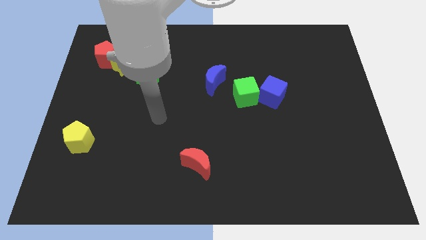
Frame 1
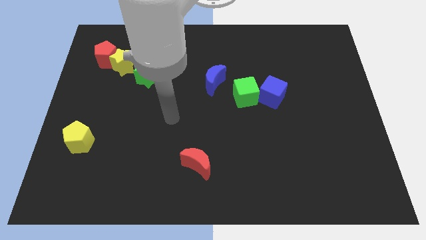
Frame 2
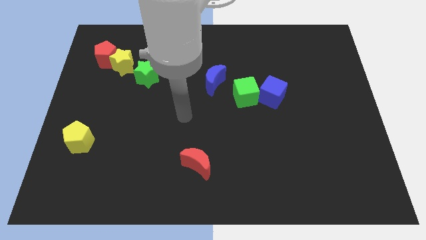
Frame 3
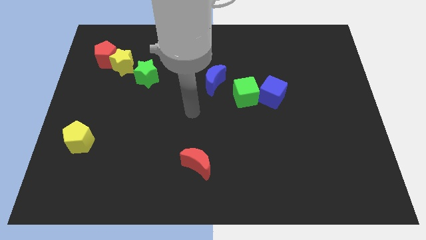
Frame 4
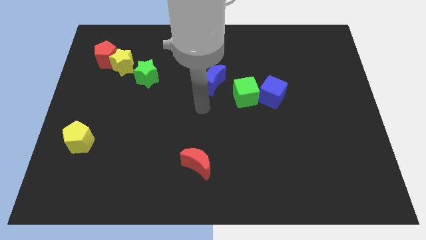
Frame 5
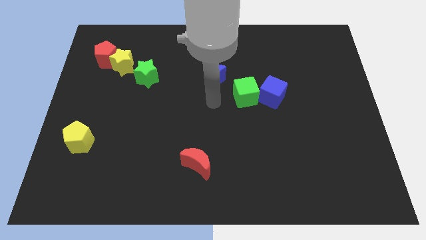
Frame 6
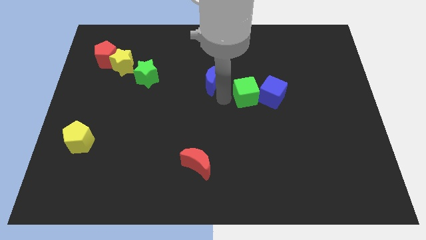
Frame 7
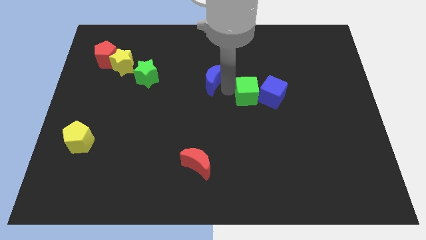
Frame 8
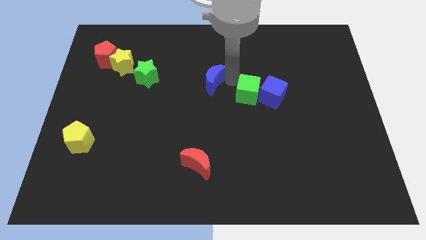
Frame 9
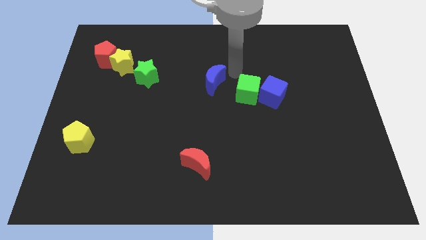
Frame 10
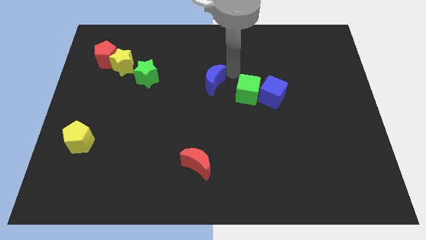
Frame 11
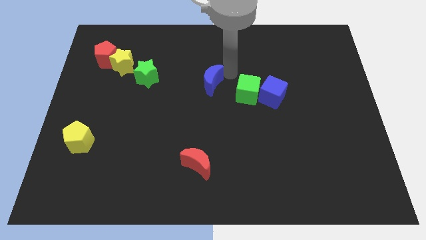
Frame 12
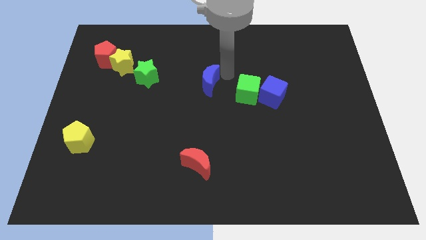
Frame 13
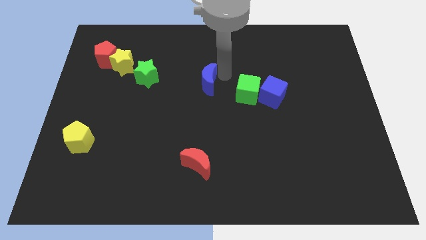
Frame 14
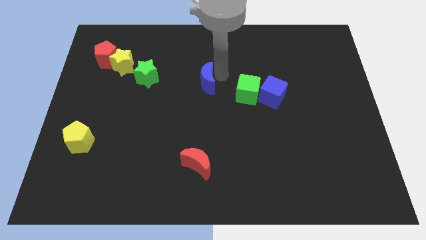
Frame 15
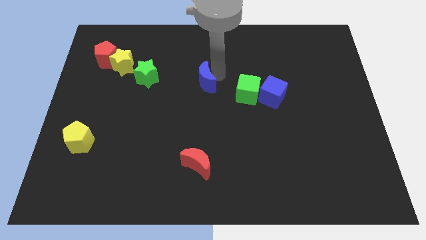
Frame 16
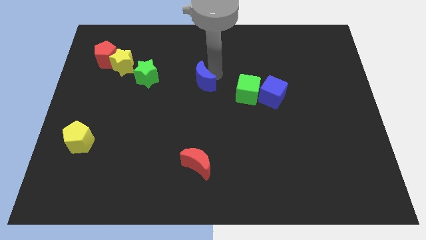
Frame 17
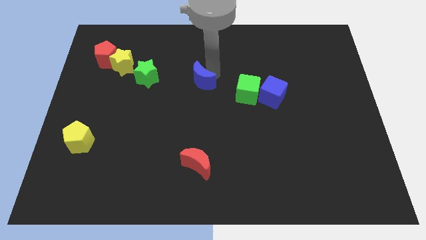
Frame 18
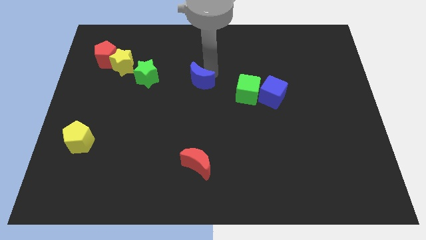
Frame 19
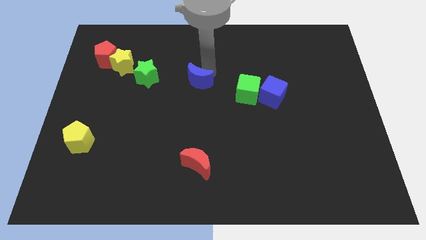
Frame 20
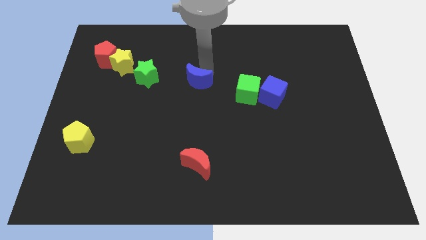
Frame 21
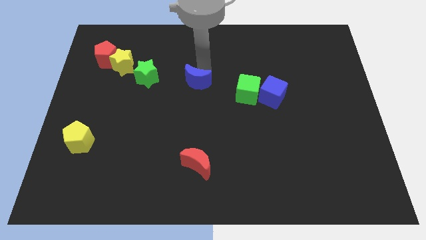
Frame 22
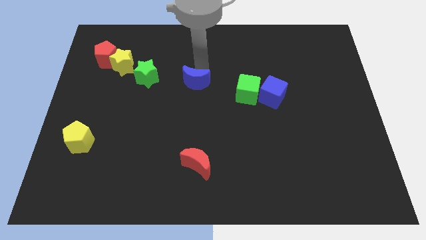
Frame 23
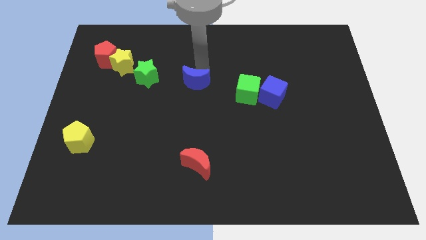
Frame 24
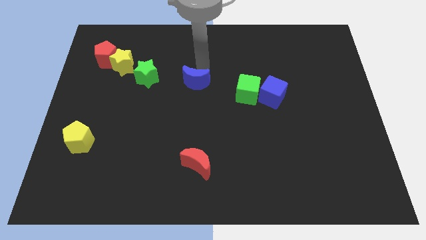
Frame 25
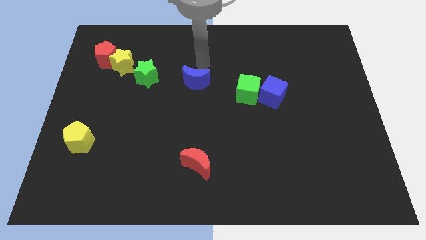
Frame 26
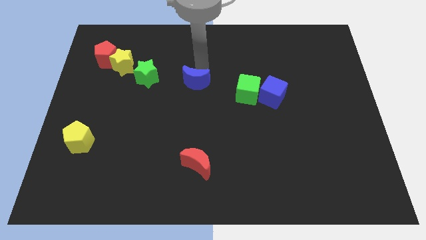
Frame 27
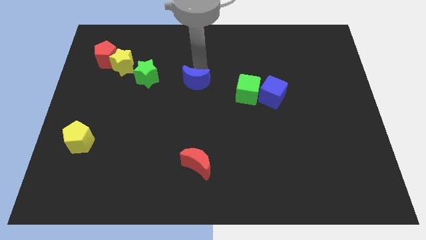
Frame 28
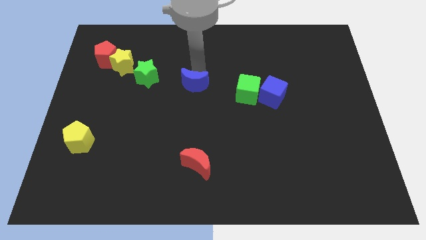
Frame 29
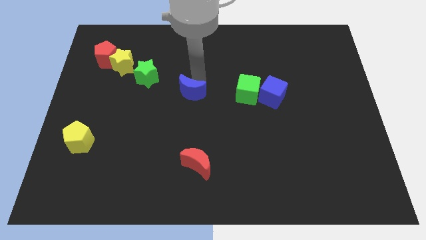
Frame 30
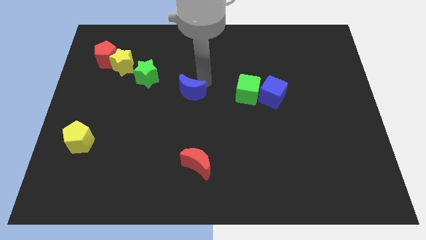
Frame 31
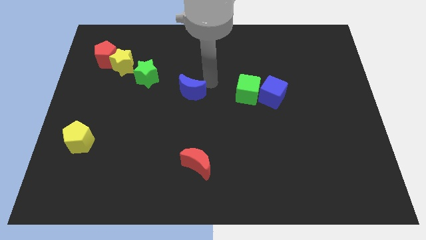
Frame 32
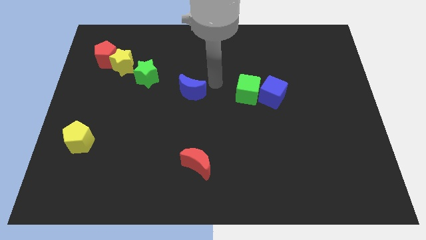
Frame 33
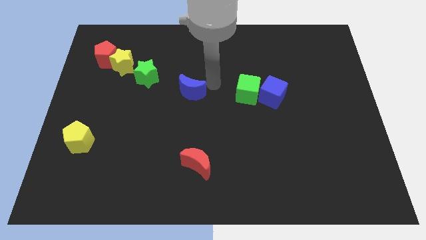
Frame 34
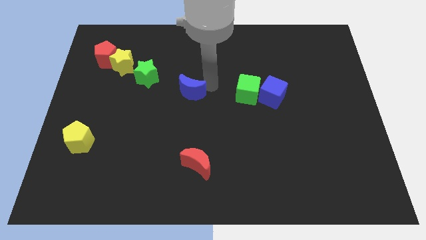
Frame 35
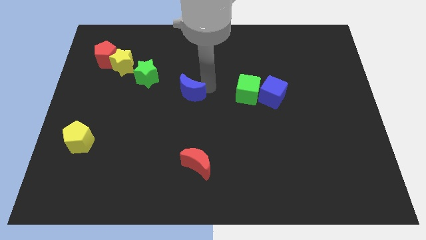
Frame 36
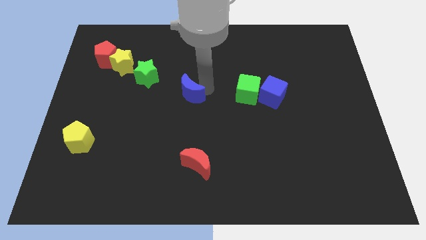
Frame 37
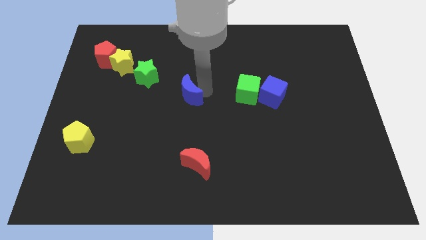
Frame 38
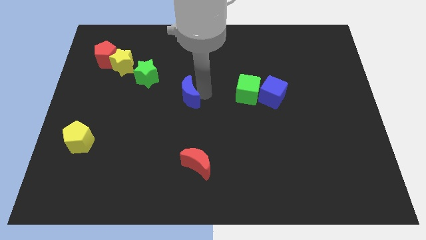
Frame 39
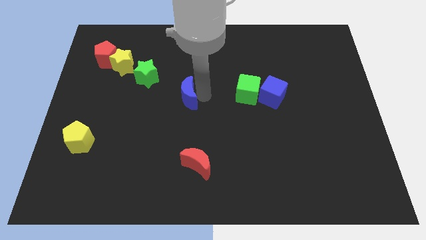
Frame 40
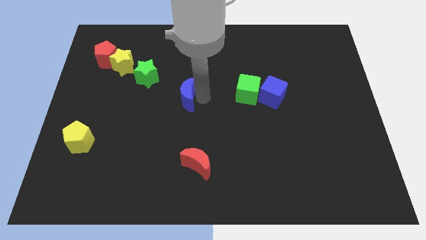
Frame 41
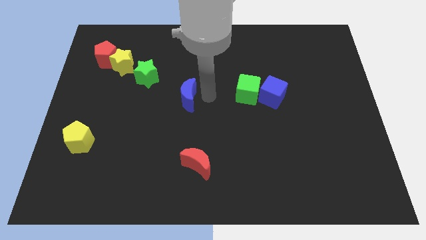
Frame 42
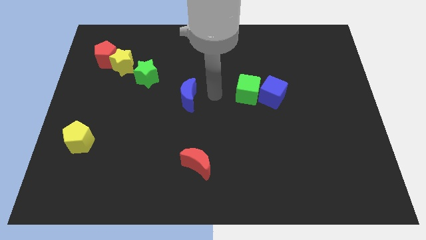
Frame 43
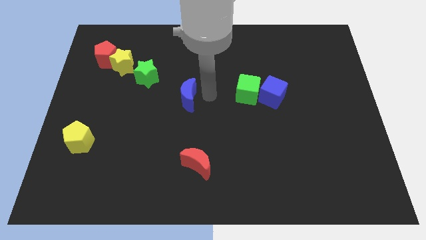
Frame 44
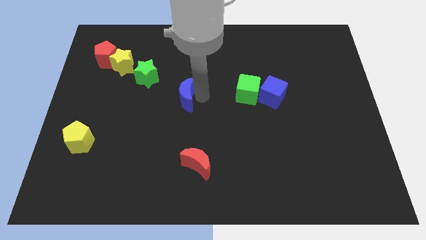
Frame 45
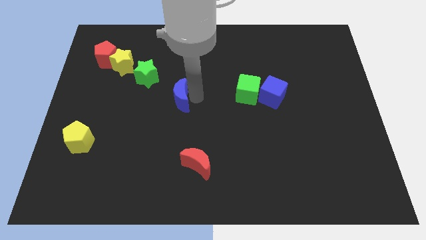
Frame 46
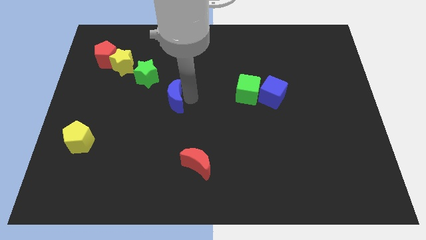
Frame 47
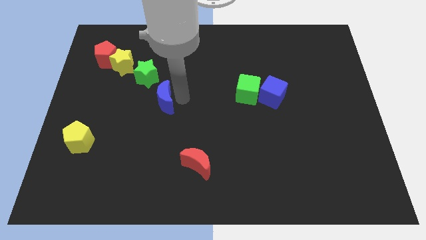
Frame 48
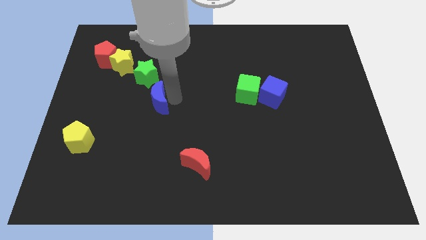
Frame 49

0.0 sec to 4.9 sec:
slide the blue moon below the green star

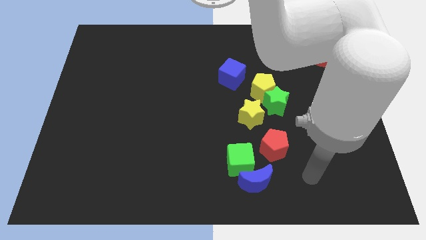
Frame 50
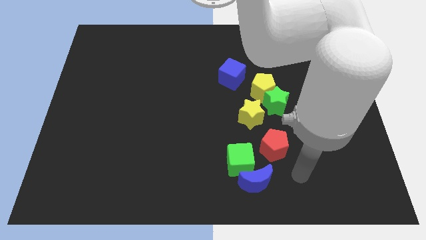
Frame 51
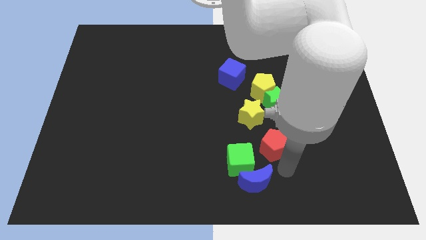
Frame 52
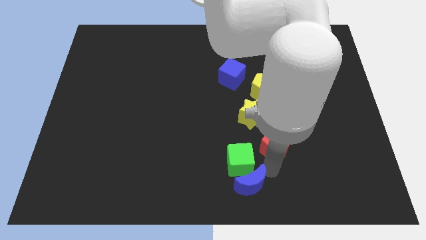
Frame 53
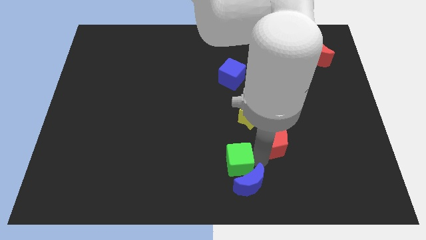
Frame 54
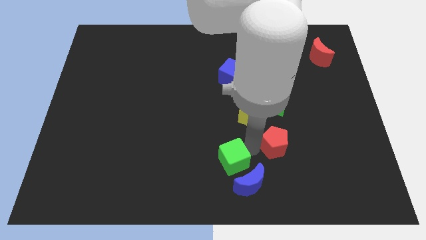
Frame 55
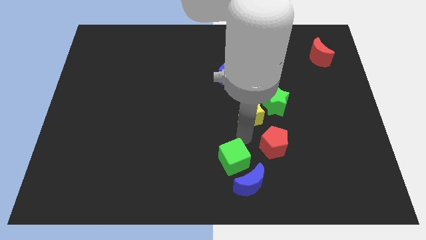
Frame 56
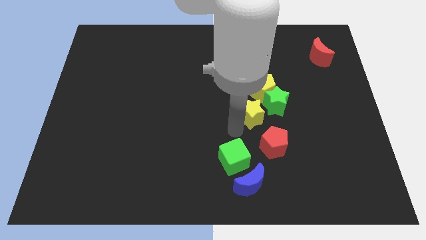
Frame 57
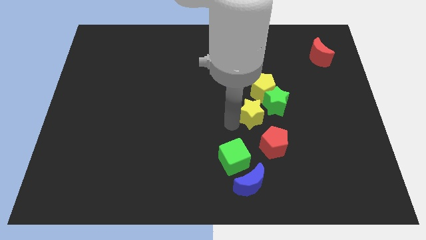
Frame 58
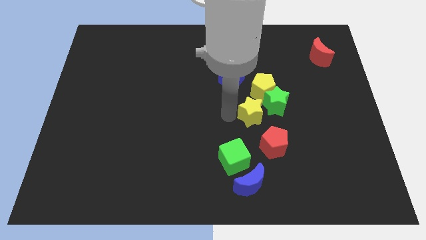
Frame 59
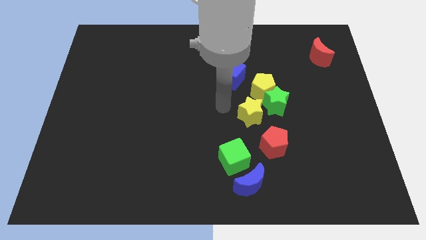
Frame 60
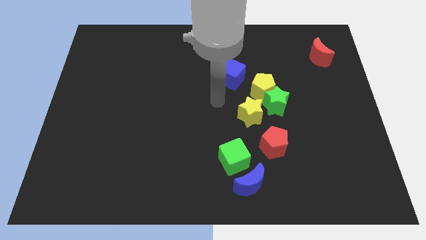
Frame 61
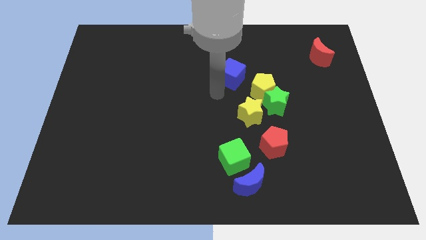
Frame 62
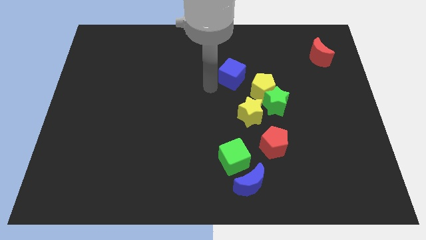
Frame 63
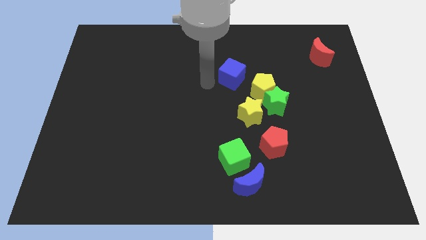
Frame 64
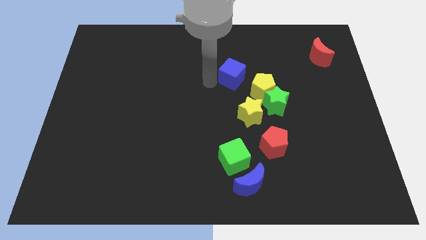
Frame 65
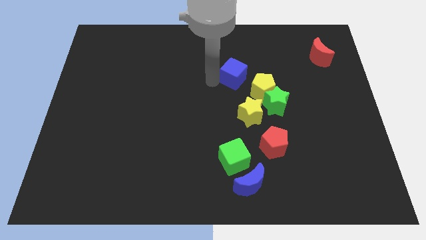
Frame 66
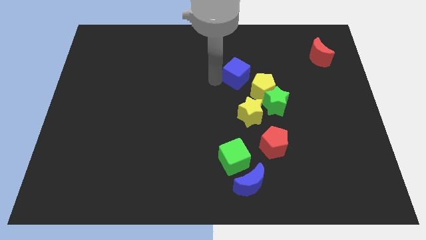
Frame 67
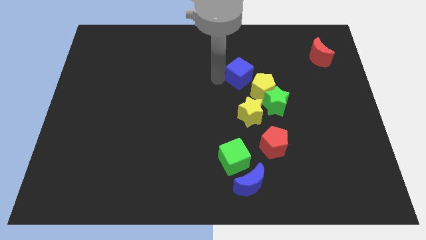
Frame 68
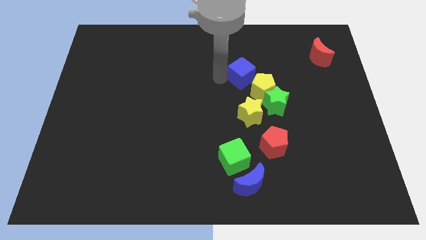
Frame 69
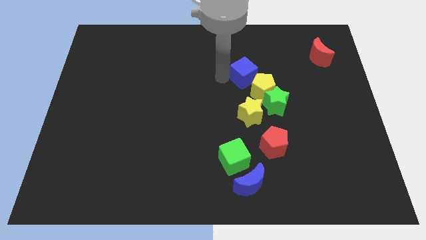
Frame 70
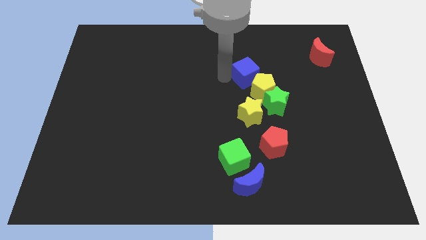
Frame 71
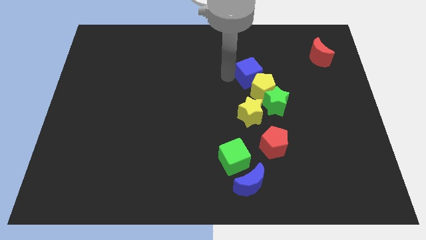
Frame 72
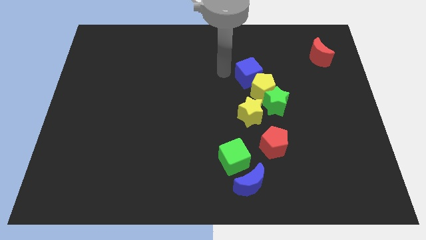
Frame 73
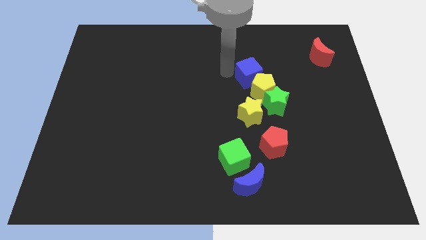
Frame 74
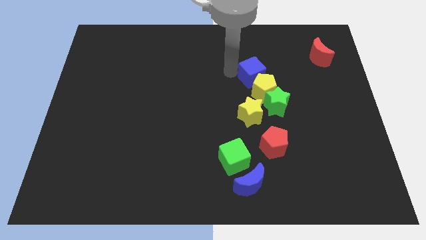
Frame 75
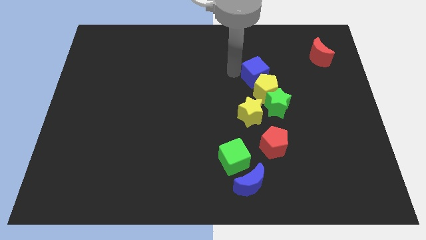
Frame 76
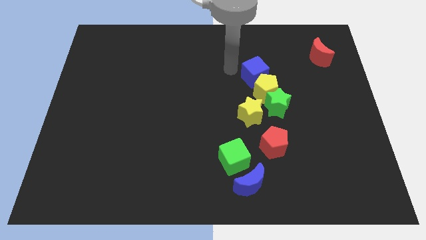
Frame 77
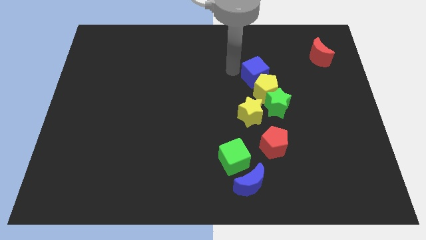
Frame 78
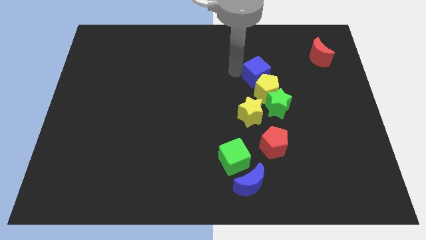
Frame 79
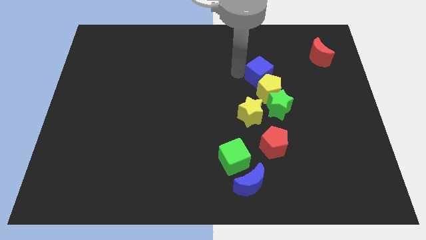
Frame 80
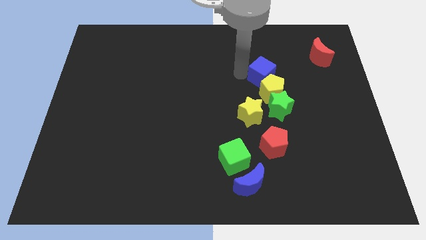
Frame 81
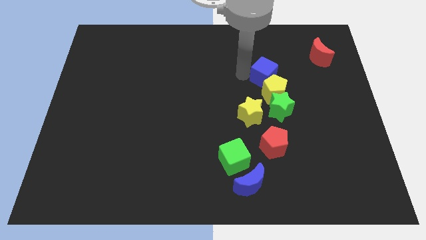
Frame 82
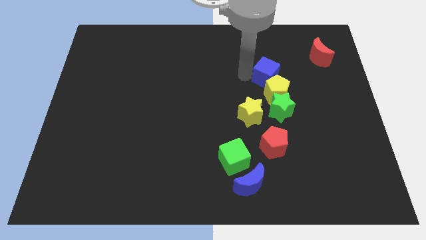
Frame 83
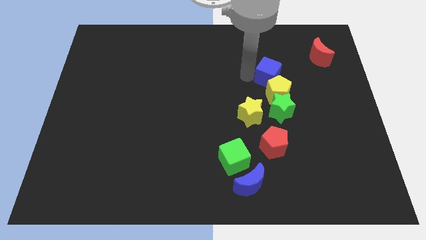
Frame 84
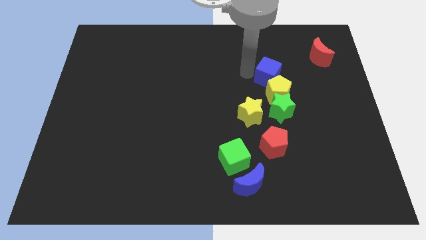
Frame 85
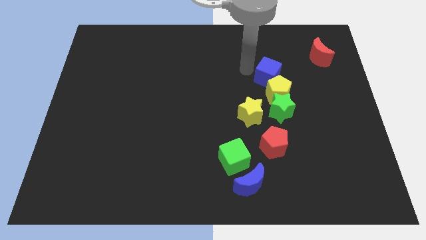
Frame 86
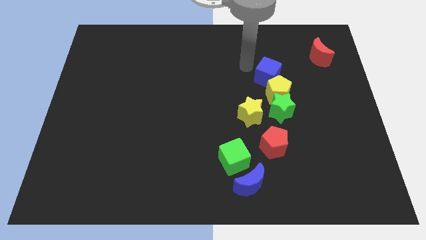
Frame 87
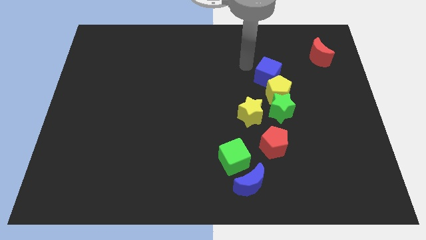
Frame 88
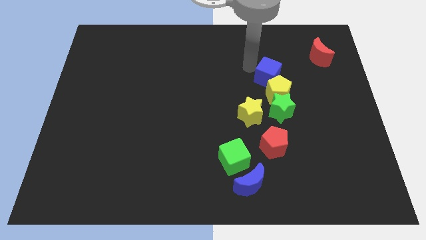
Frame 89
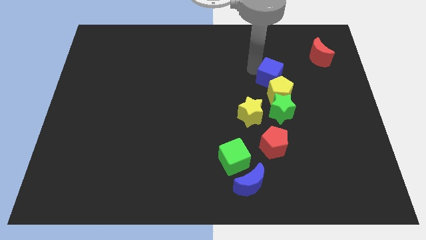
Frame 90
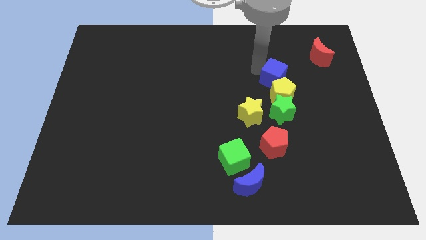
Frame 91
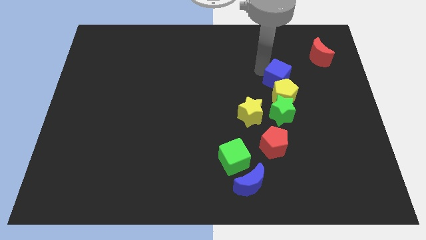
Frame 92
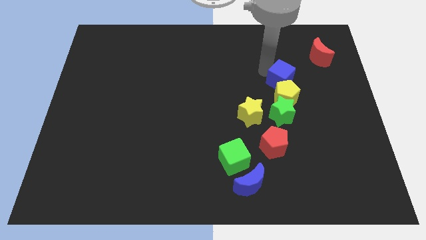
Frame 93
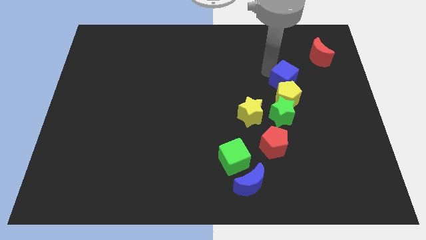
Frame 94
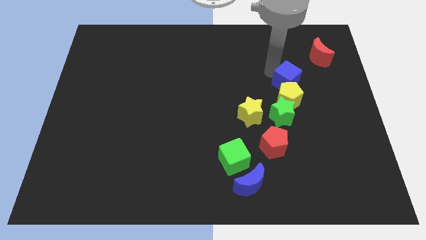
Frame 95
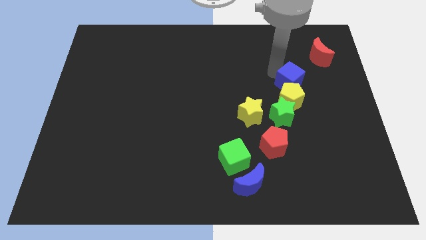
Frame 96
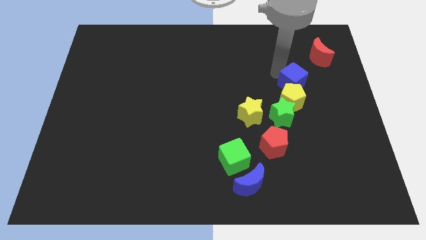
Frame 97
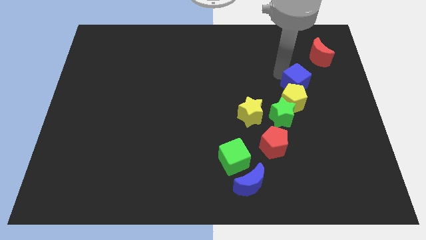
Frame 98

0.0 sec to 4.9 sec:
put the blue cube to the top right side of the green star
